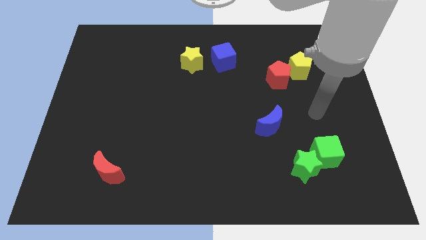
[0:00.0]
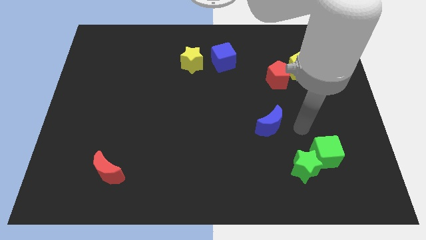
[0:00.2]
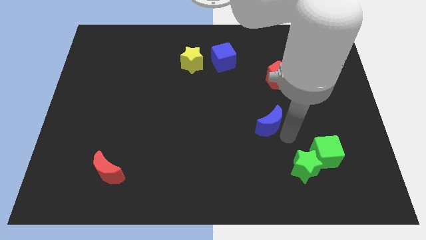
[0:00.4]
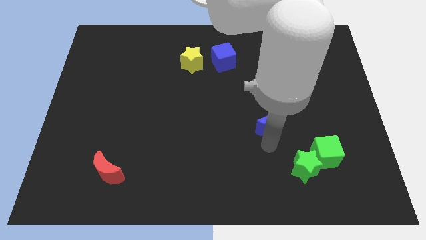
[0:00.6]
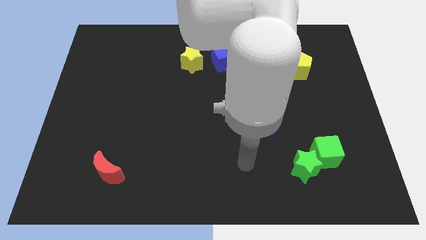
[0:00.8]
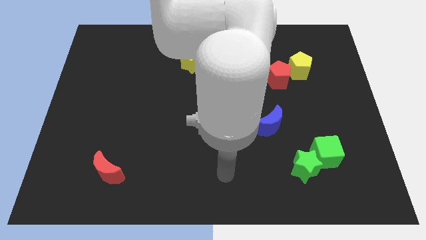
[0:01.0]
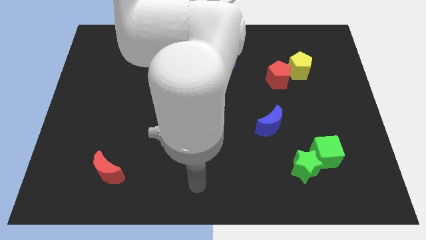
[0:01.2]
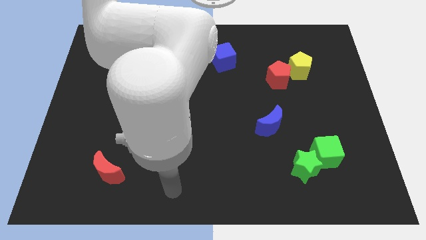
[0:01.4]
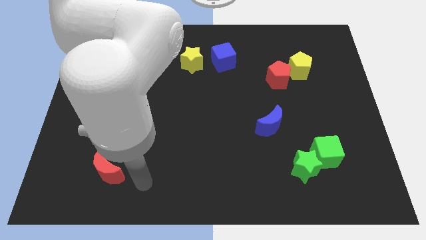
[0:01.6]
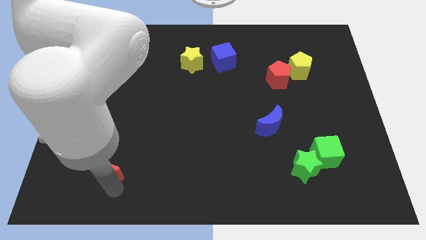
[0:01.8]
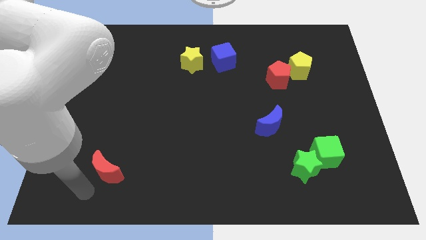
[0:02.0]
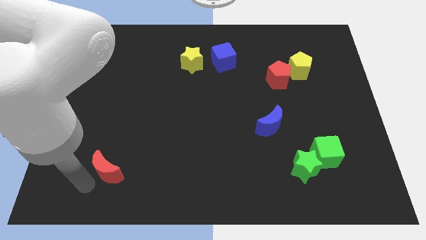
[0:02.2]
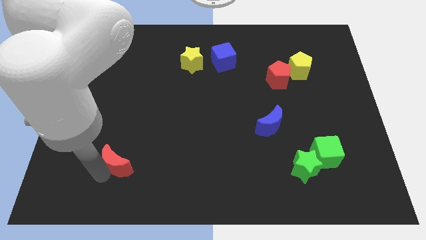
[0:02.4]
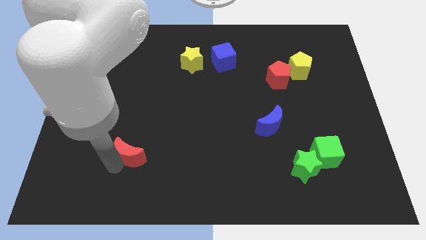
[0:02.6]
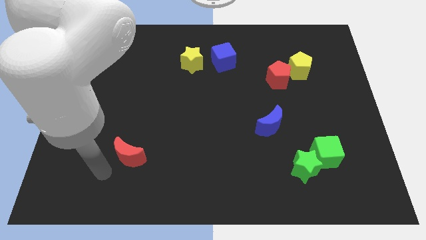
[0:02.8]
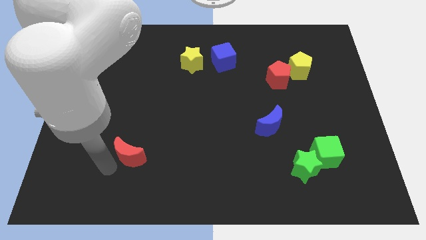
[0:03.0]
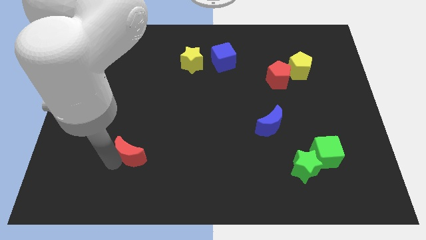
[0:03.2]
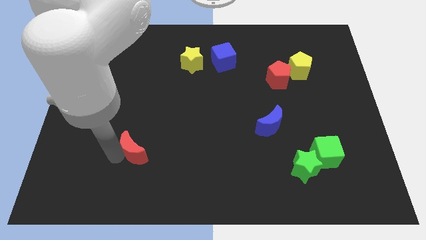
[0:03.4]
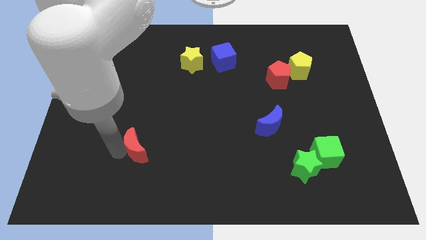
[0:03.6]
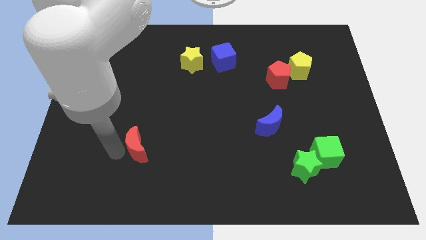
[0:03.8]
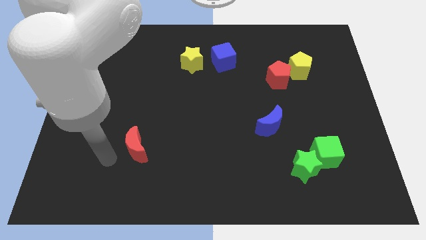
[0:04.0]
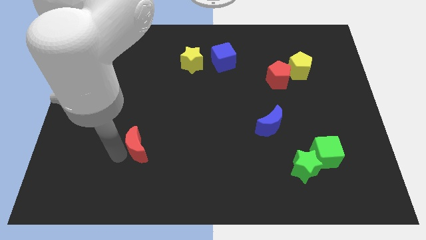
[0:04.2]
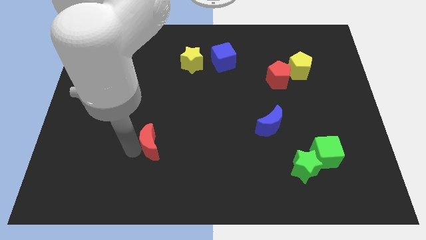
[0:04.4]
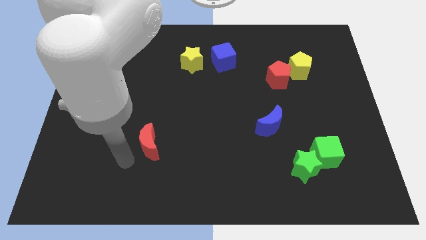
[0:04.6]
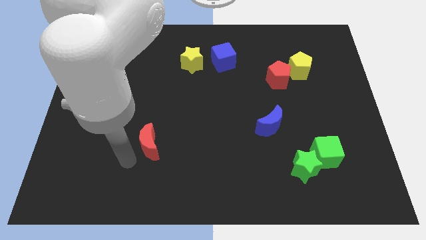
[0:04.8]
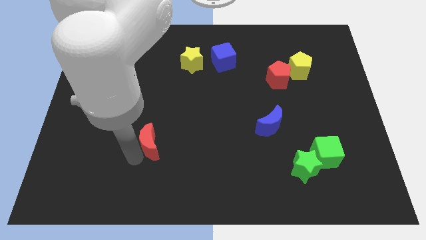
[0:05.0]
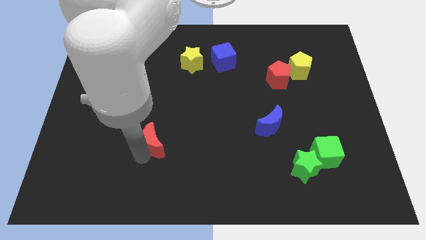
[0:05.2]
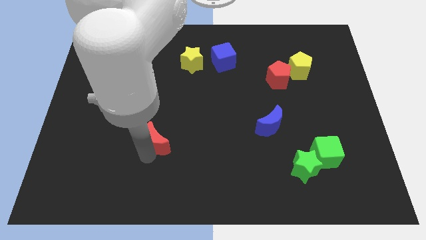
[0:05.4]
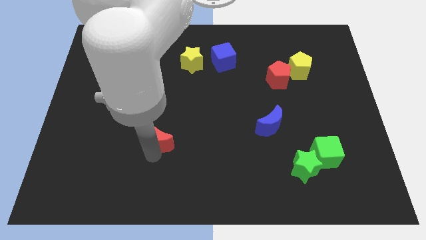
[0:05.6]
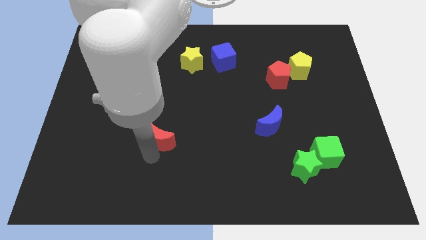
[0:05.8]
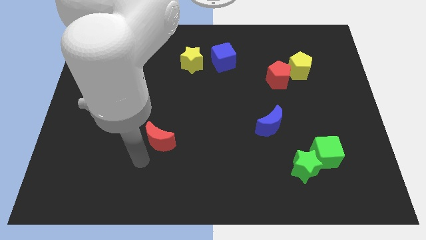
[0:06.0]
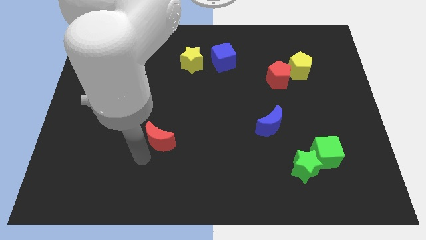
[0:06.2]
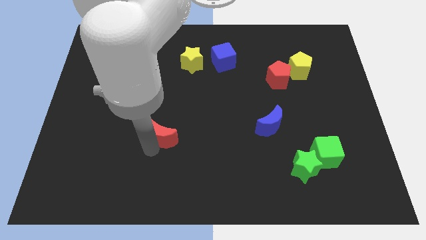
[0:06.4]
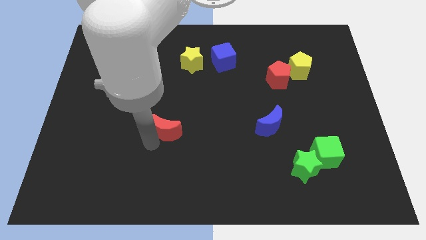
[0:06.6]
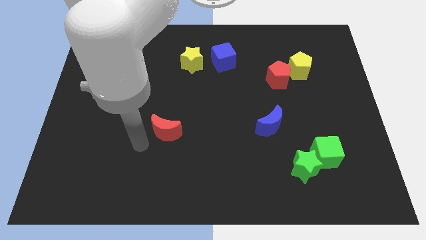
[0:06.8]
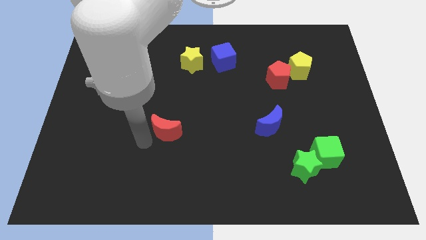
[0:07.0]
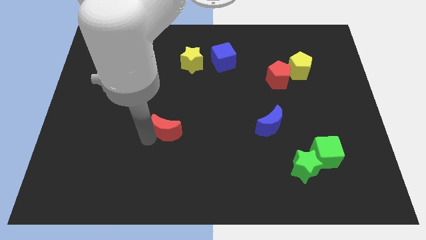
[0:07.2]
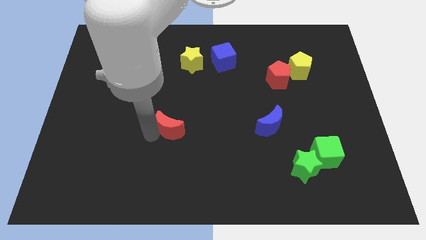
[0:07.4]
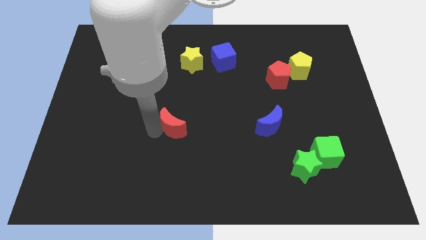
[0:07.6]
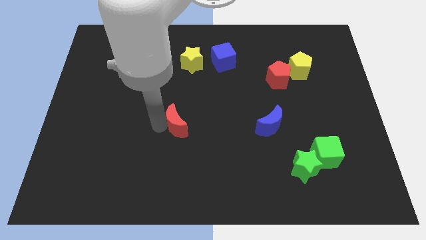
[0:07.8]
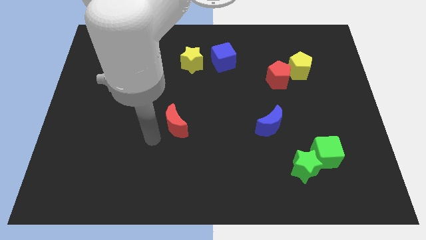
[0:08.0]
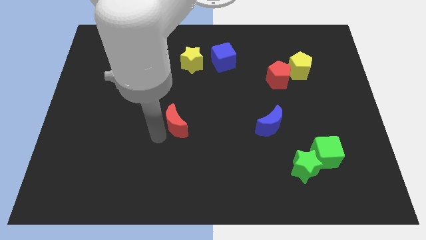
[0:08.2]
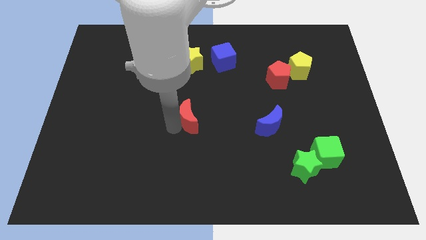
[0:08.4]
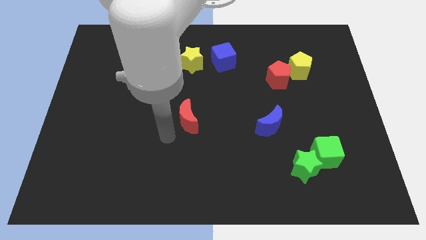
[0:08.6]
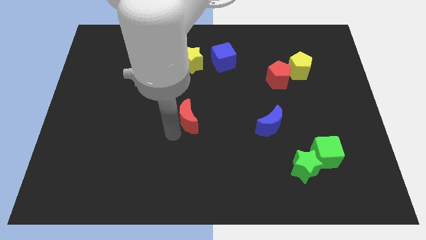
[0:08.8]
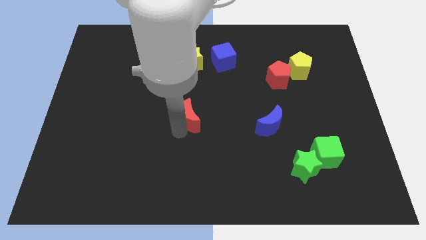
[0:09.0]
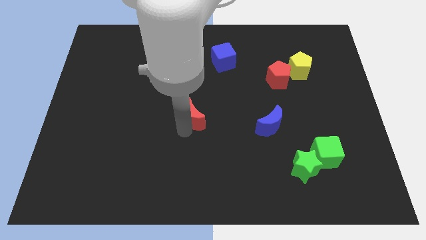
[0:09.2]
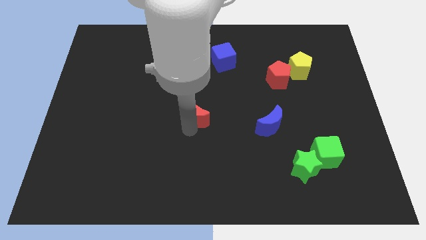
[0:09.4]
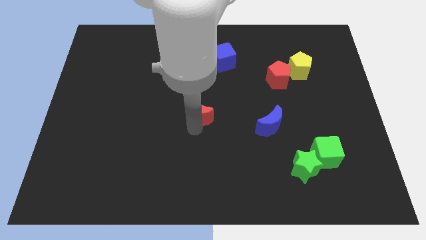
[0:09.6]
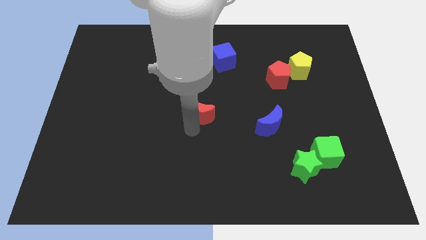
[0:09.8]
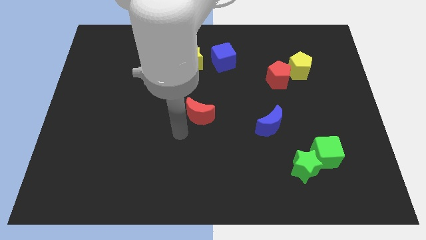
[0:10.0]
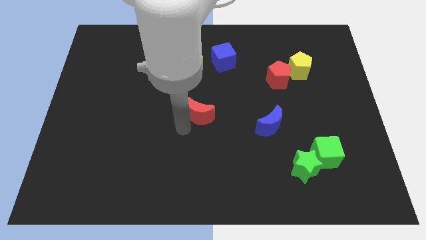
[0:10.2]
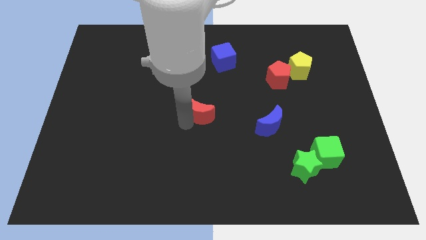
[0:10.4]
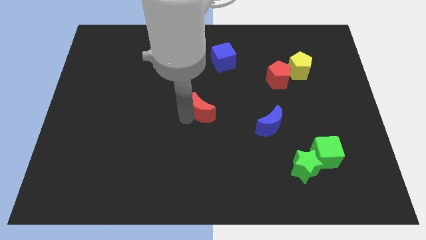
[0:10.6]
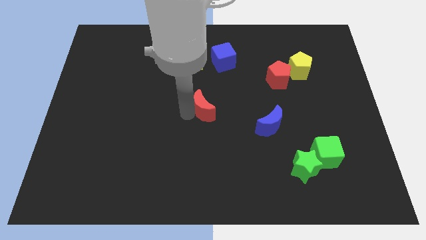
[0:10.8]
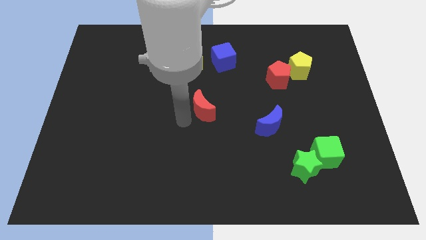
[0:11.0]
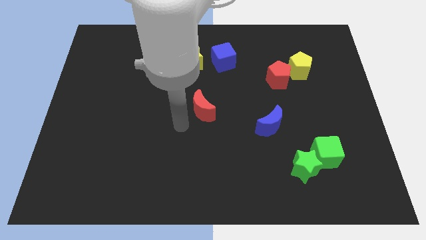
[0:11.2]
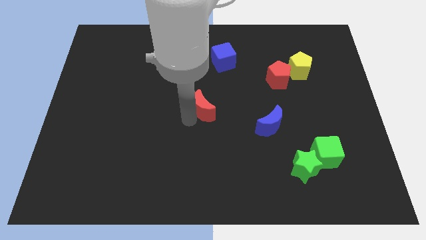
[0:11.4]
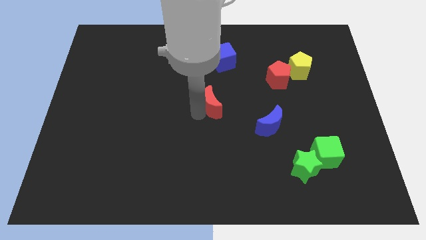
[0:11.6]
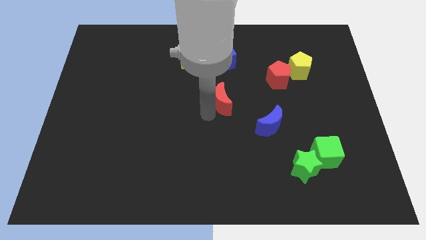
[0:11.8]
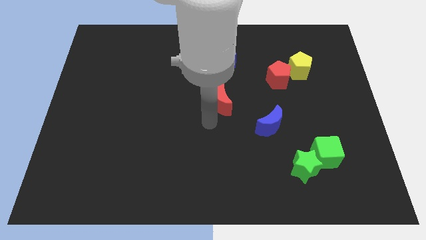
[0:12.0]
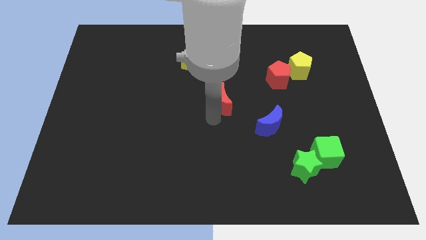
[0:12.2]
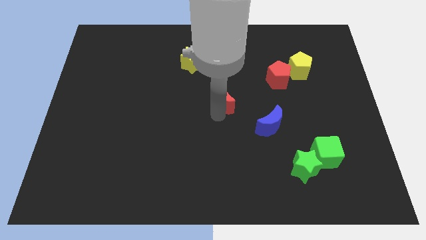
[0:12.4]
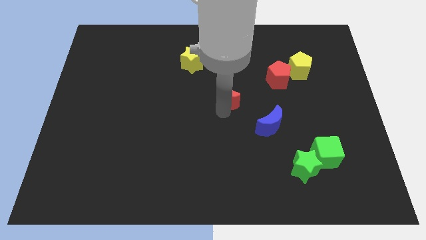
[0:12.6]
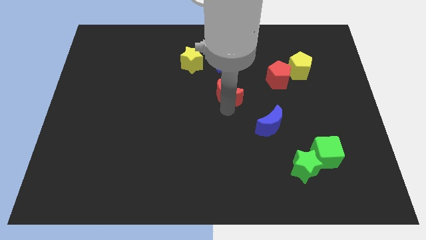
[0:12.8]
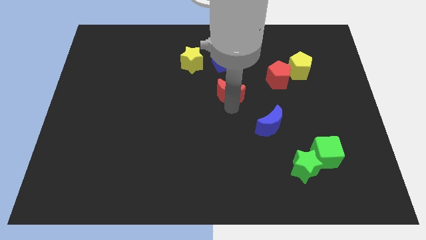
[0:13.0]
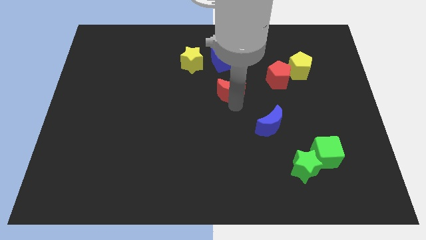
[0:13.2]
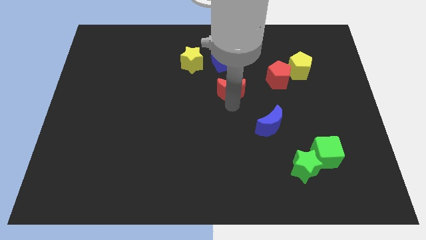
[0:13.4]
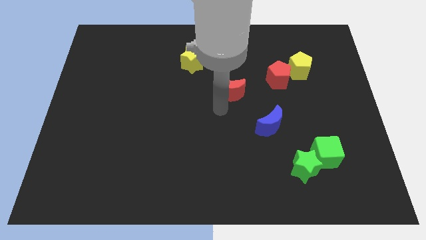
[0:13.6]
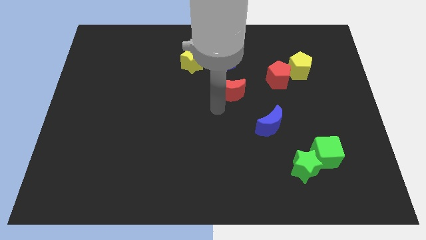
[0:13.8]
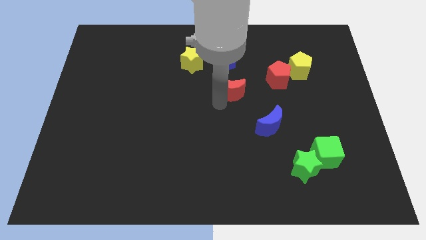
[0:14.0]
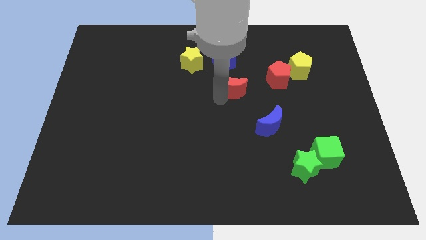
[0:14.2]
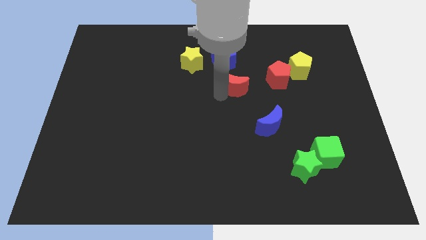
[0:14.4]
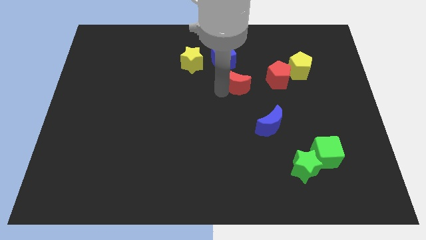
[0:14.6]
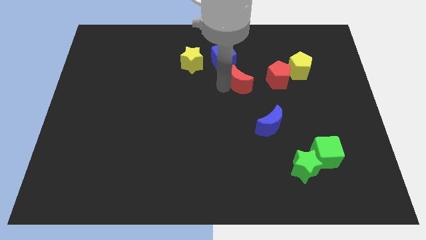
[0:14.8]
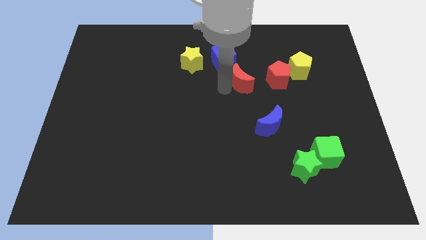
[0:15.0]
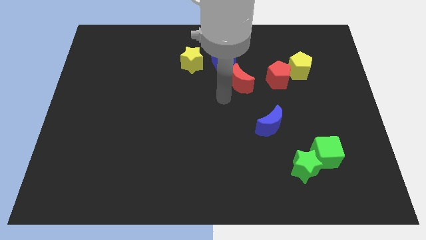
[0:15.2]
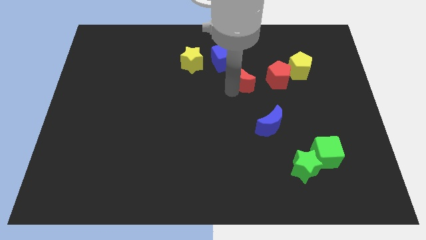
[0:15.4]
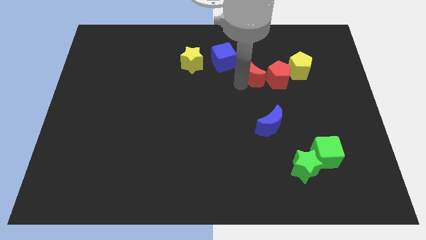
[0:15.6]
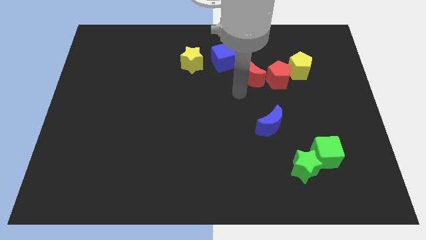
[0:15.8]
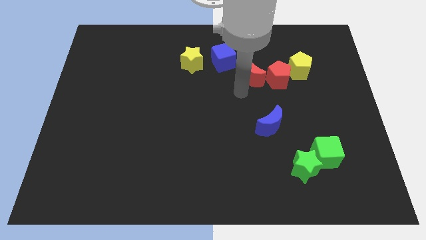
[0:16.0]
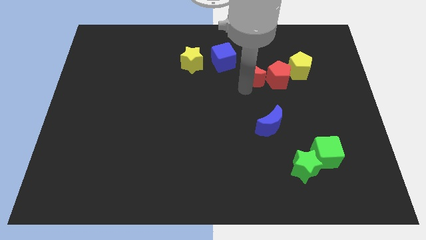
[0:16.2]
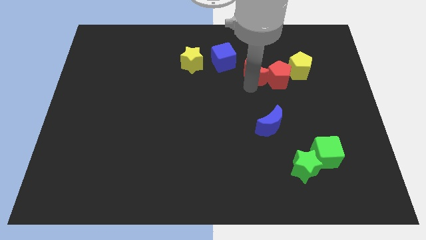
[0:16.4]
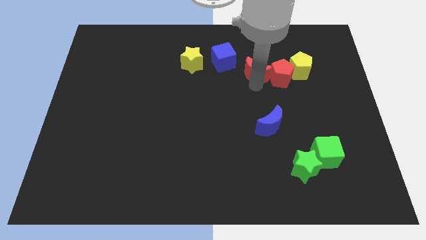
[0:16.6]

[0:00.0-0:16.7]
put the red moon to the right side of the blue cube
